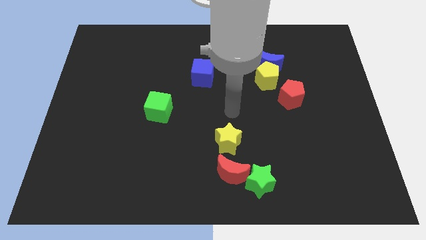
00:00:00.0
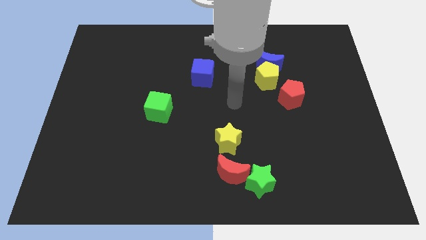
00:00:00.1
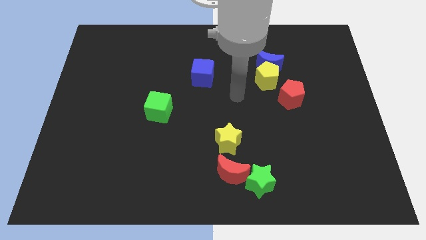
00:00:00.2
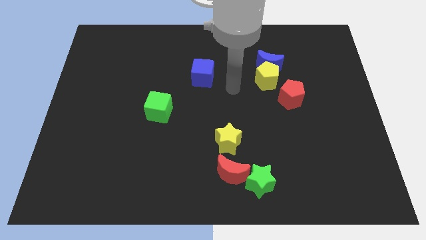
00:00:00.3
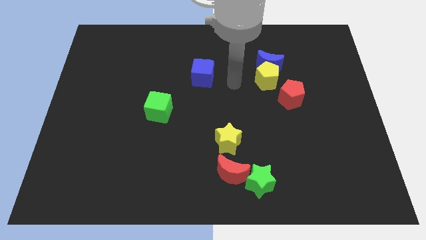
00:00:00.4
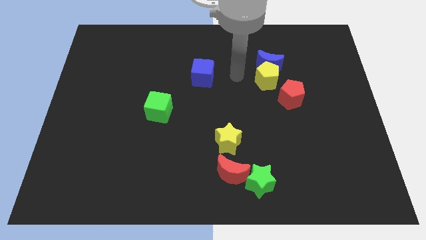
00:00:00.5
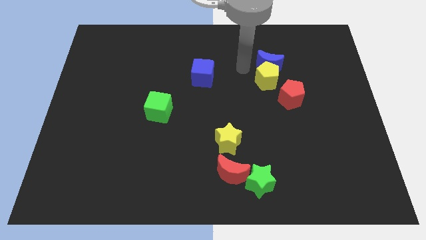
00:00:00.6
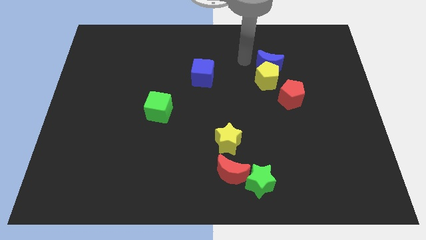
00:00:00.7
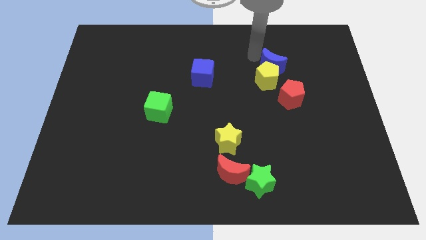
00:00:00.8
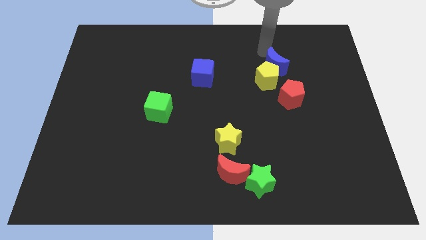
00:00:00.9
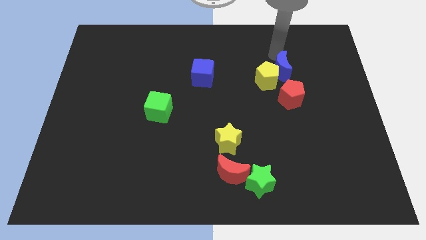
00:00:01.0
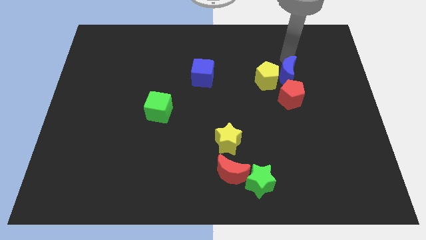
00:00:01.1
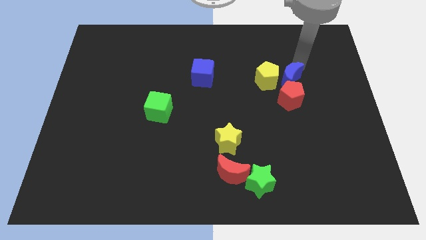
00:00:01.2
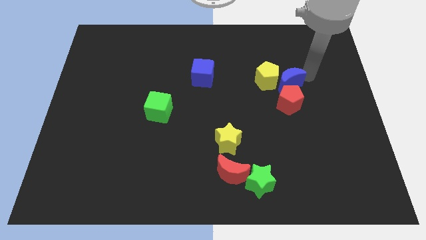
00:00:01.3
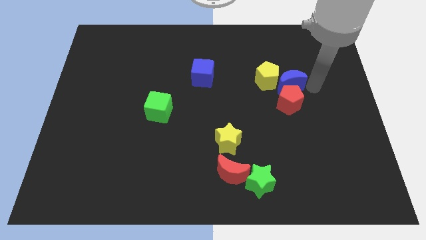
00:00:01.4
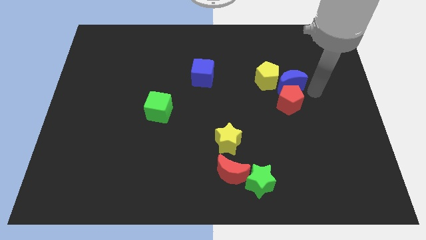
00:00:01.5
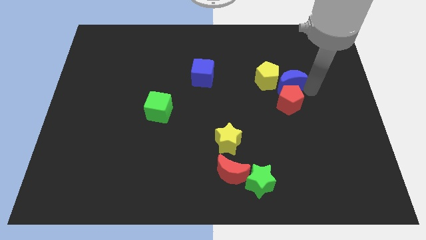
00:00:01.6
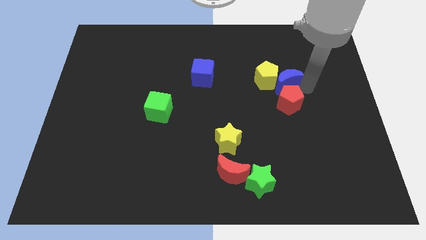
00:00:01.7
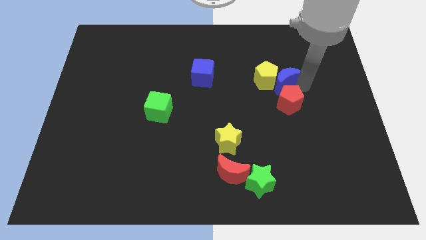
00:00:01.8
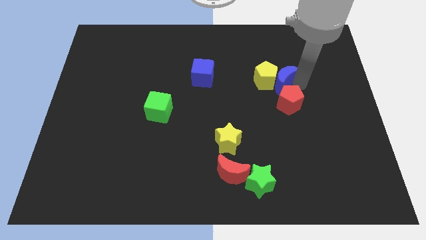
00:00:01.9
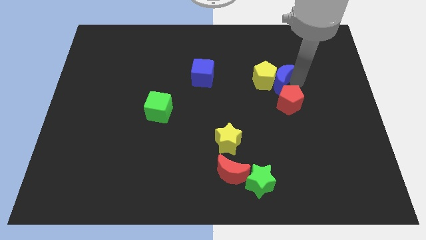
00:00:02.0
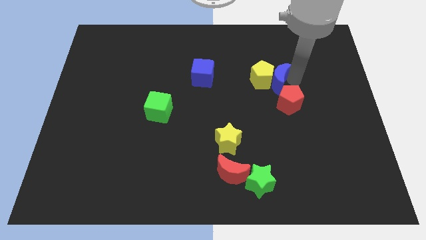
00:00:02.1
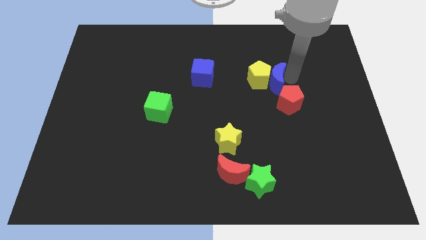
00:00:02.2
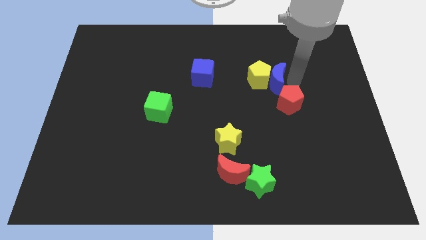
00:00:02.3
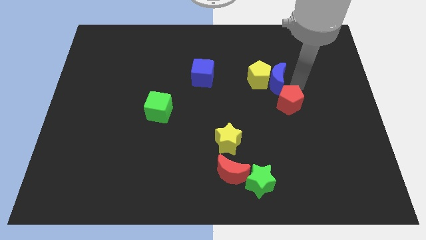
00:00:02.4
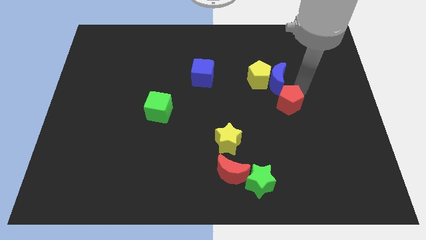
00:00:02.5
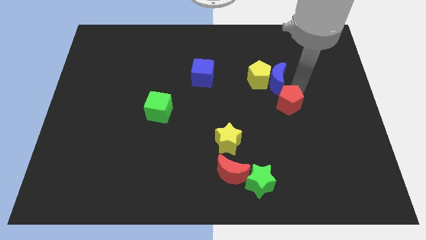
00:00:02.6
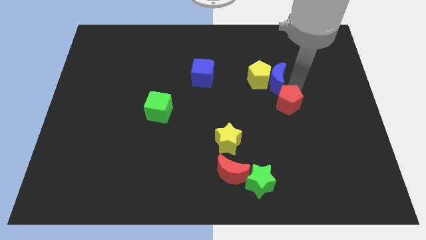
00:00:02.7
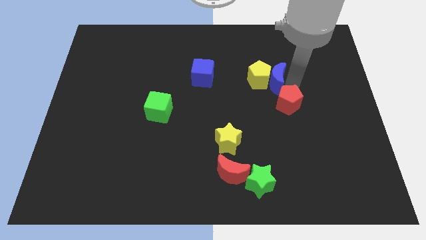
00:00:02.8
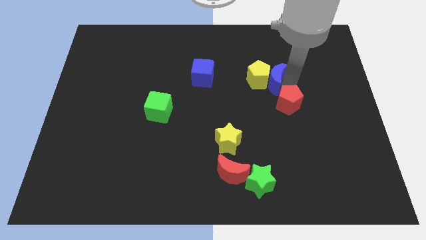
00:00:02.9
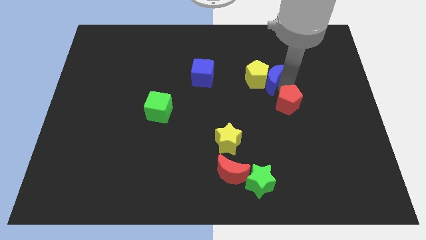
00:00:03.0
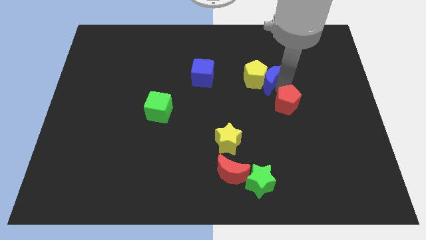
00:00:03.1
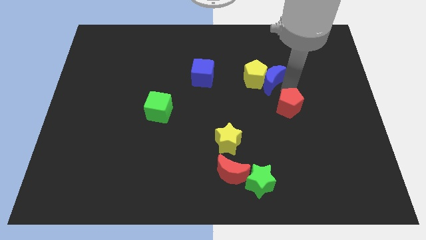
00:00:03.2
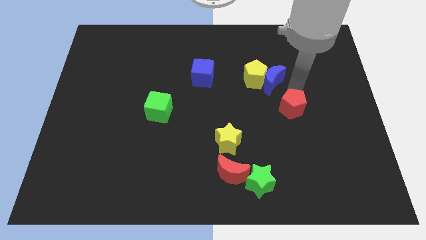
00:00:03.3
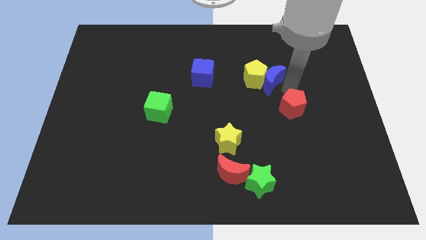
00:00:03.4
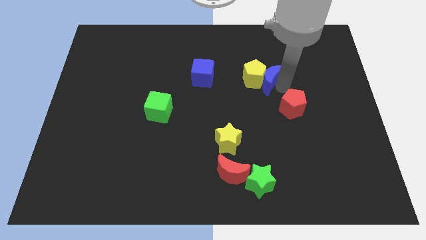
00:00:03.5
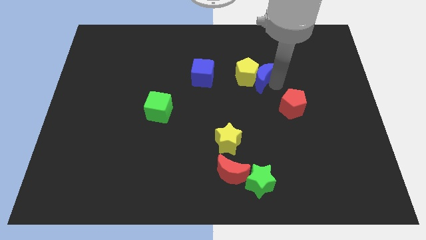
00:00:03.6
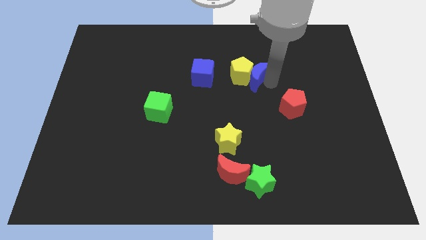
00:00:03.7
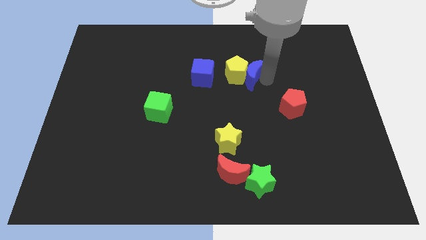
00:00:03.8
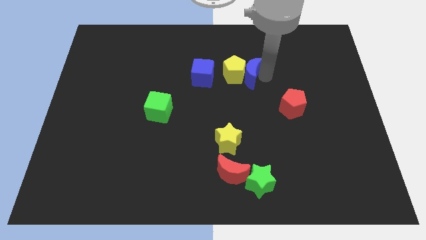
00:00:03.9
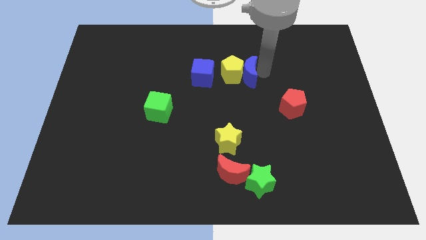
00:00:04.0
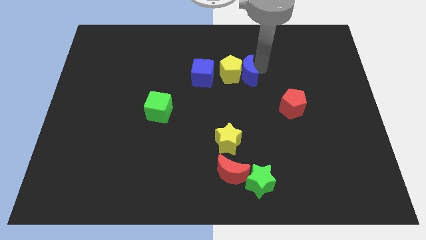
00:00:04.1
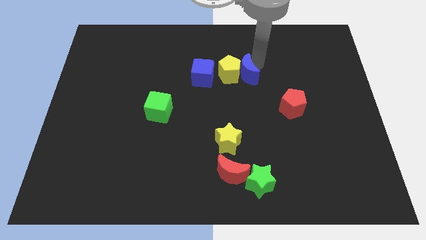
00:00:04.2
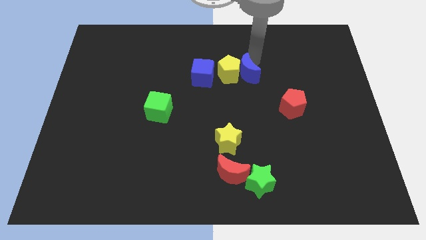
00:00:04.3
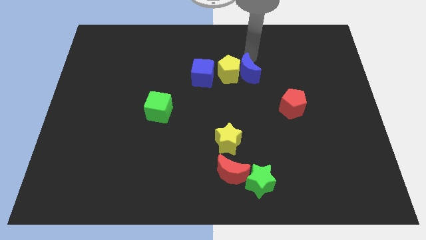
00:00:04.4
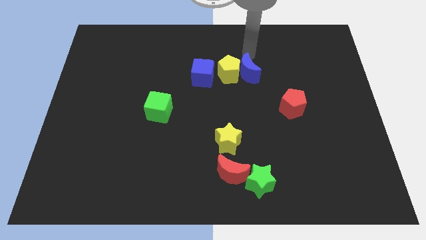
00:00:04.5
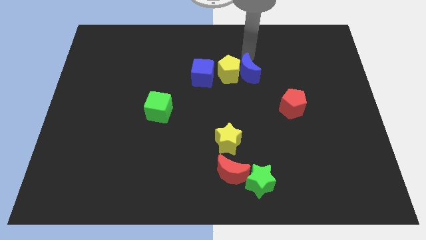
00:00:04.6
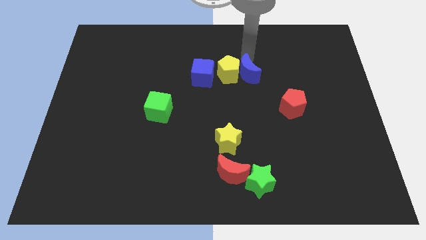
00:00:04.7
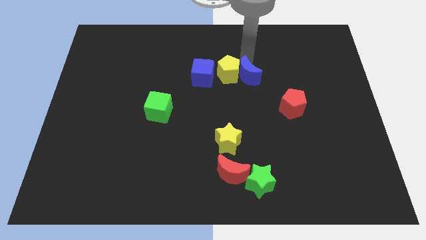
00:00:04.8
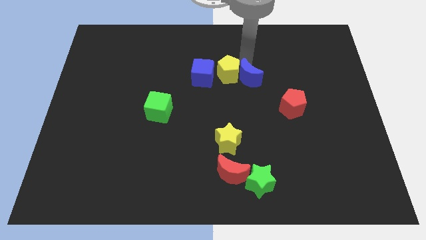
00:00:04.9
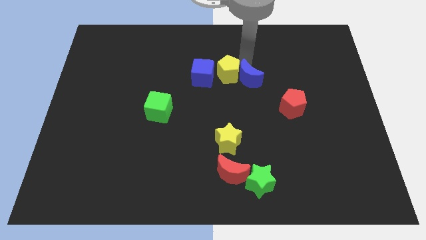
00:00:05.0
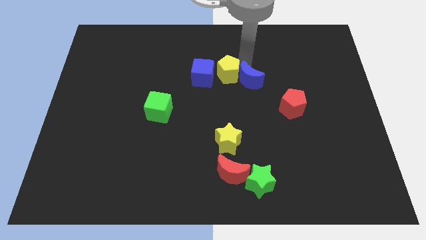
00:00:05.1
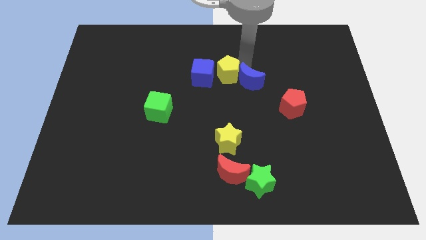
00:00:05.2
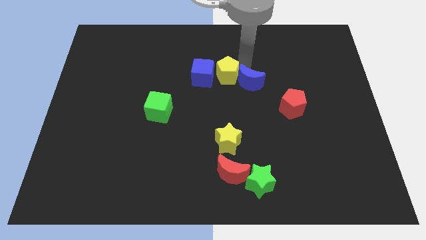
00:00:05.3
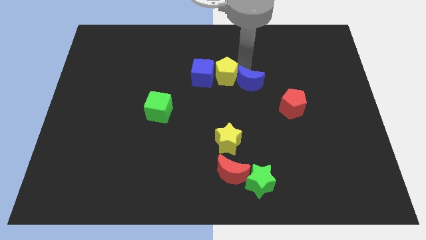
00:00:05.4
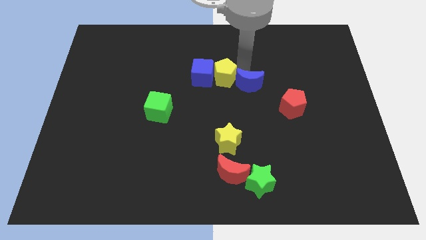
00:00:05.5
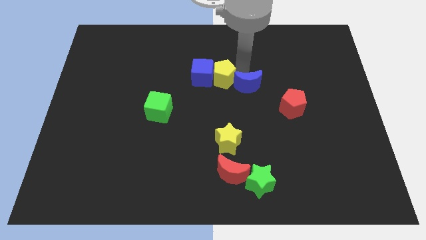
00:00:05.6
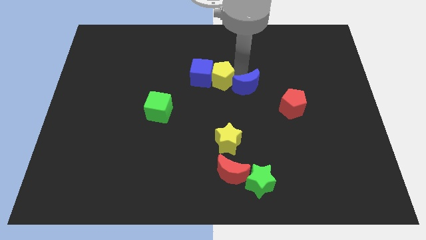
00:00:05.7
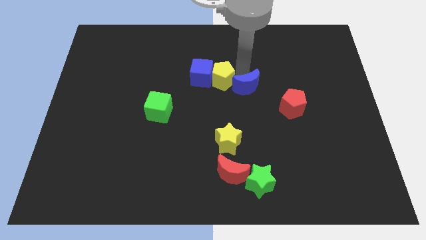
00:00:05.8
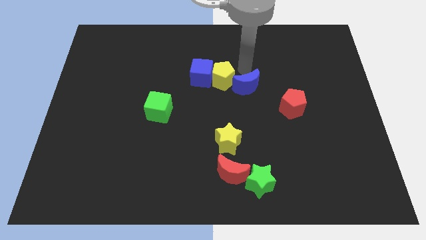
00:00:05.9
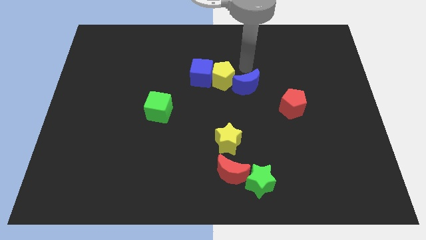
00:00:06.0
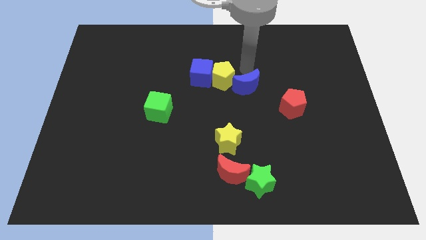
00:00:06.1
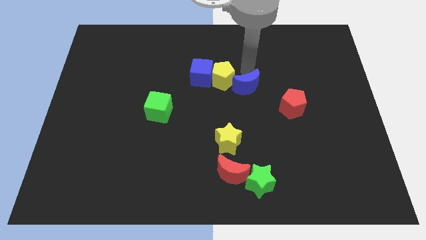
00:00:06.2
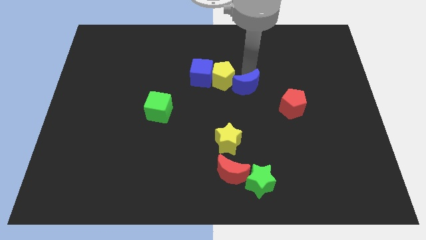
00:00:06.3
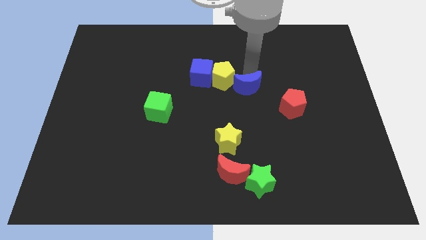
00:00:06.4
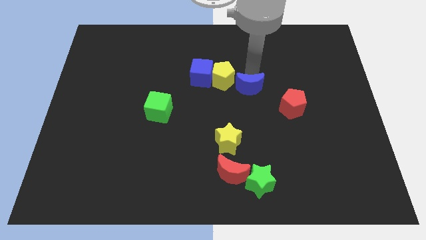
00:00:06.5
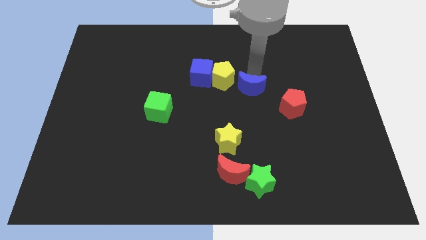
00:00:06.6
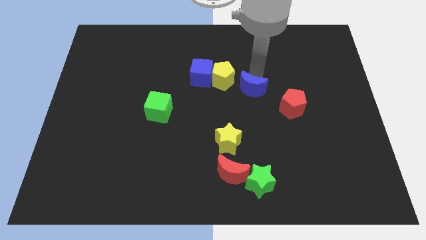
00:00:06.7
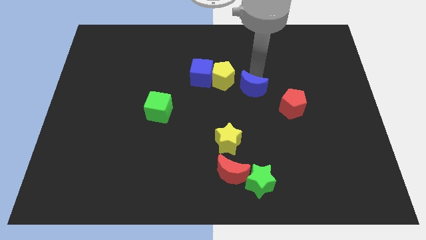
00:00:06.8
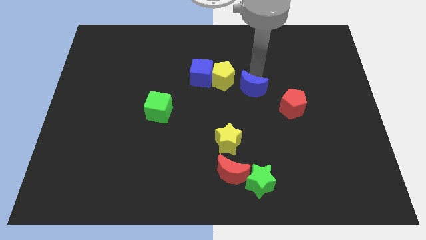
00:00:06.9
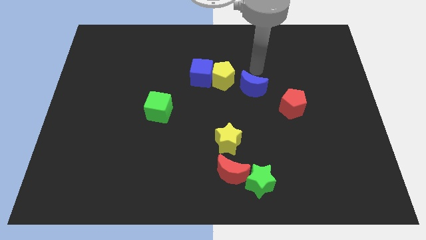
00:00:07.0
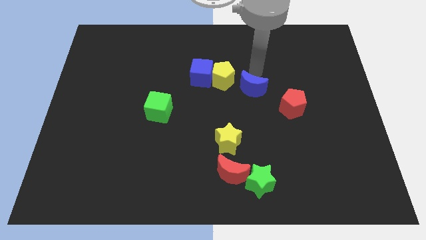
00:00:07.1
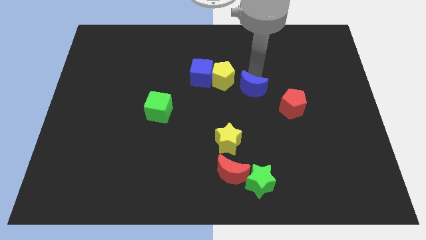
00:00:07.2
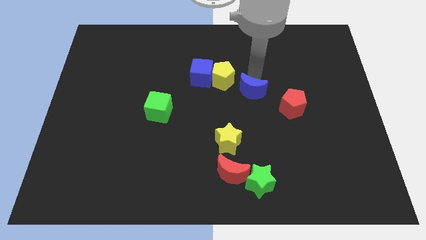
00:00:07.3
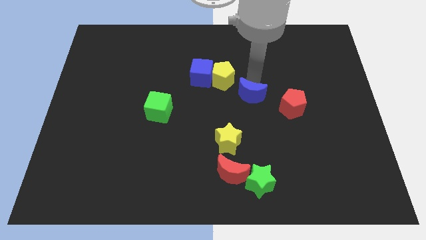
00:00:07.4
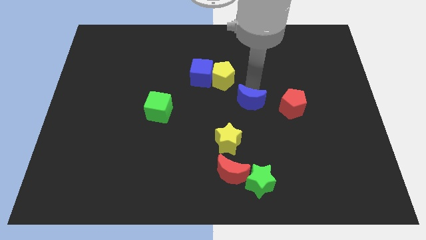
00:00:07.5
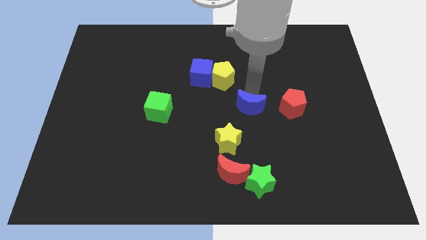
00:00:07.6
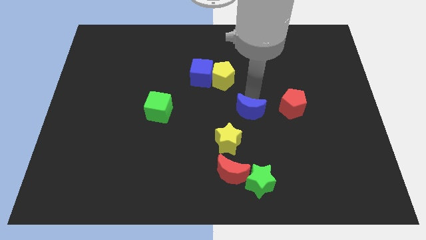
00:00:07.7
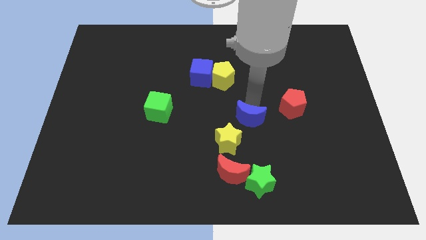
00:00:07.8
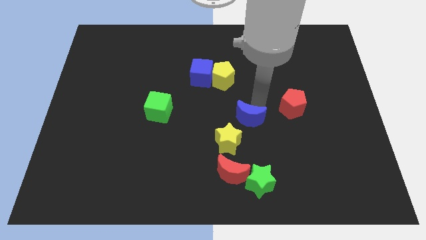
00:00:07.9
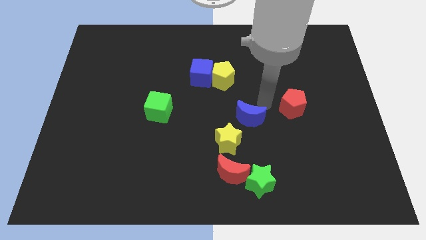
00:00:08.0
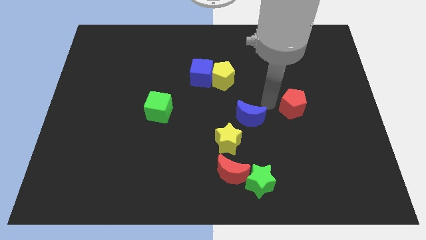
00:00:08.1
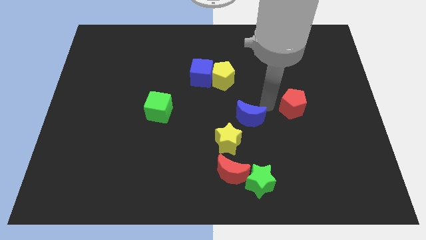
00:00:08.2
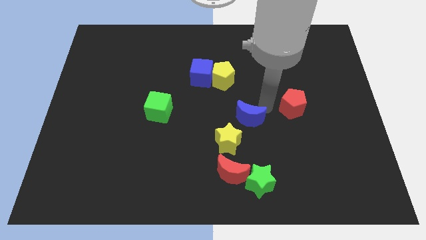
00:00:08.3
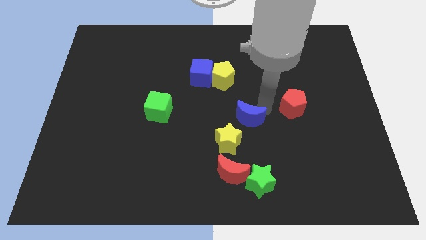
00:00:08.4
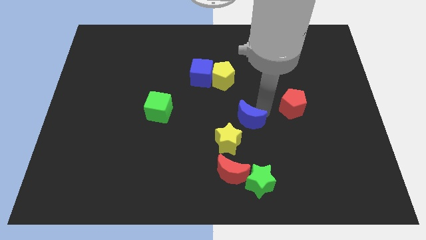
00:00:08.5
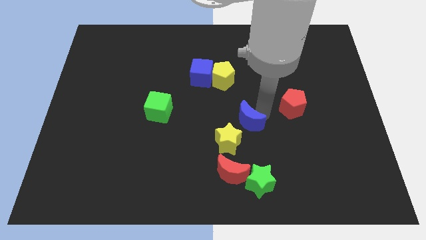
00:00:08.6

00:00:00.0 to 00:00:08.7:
put the blue moon to the top of the red moon
